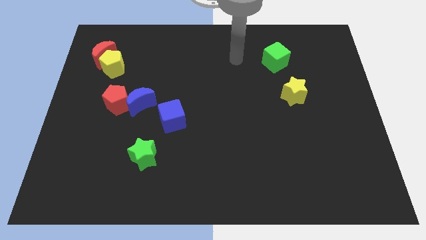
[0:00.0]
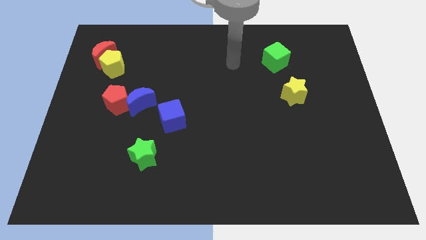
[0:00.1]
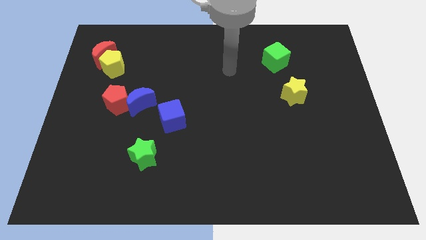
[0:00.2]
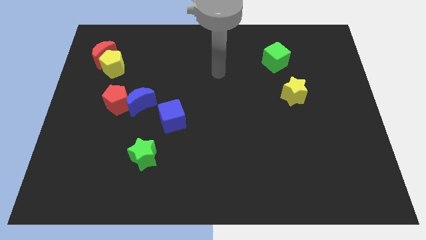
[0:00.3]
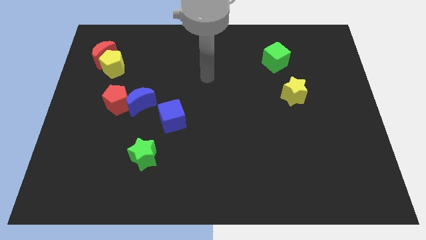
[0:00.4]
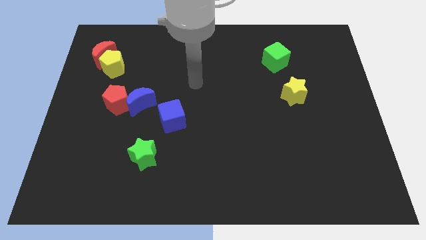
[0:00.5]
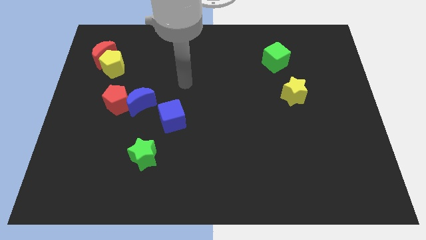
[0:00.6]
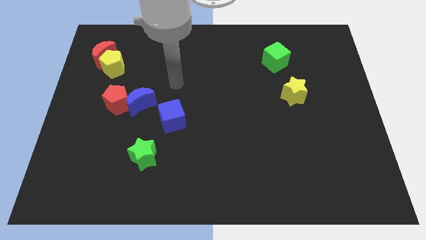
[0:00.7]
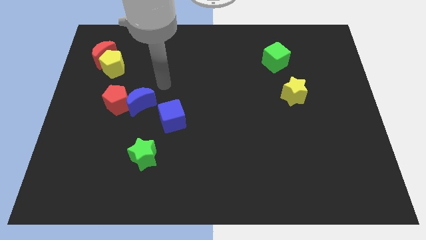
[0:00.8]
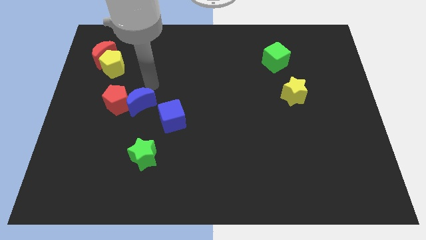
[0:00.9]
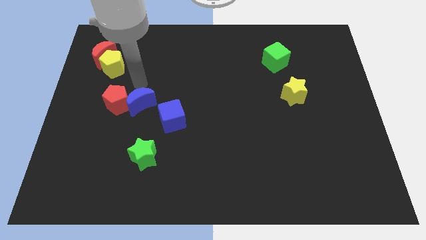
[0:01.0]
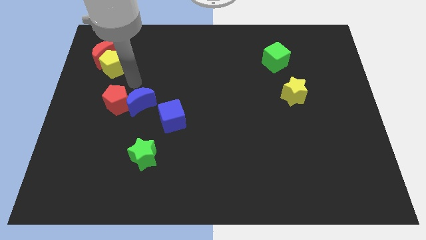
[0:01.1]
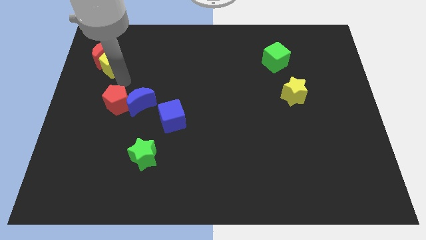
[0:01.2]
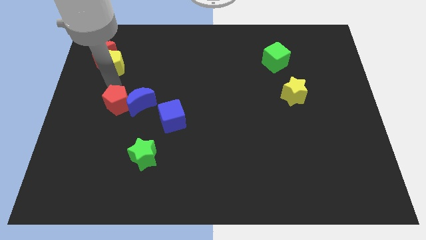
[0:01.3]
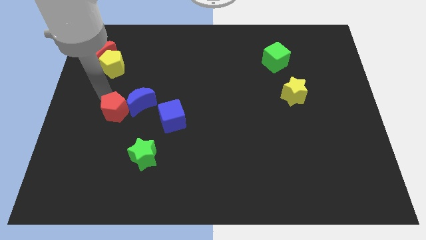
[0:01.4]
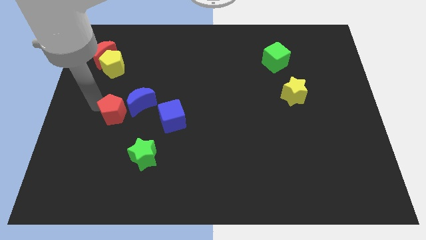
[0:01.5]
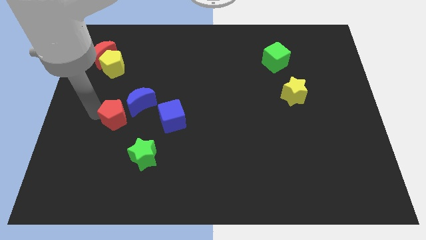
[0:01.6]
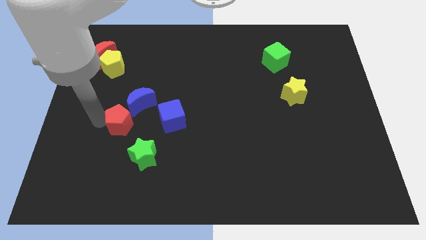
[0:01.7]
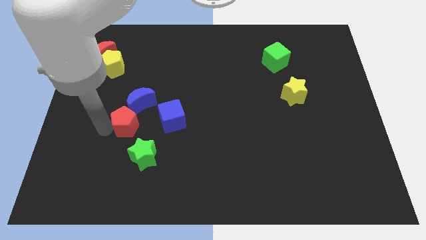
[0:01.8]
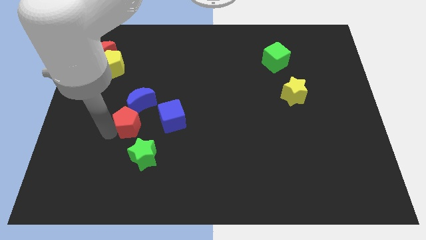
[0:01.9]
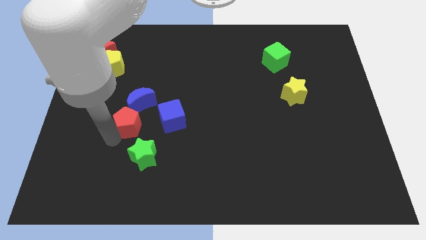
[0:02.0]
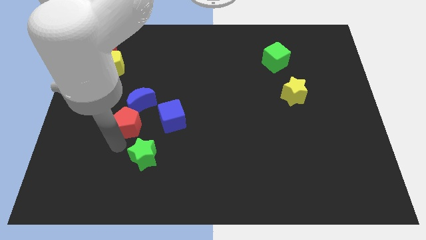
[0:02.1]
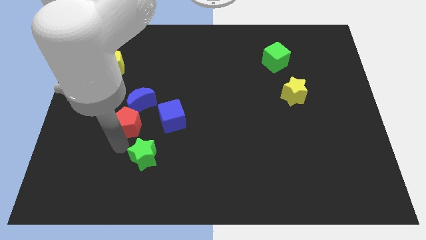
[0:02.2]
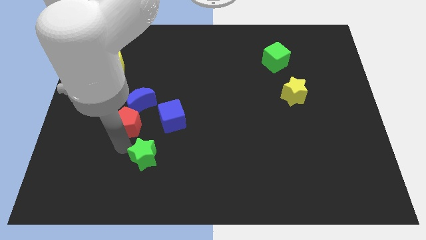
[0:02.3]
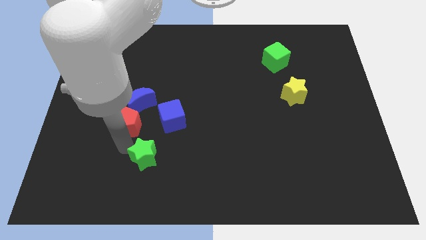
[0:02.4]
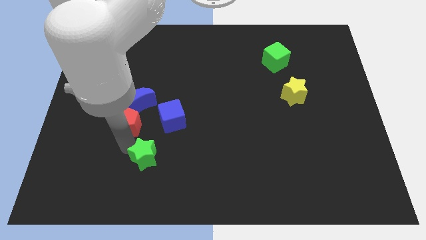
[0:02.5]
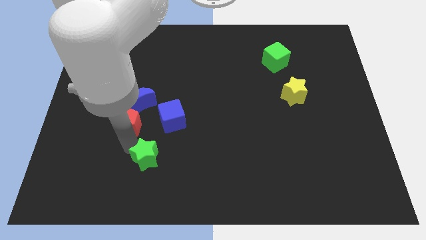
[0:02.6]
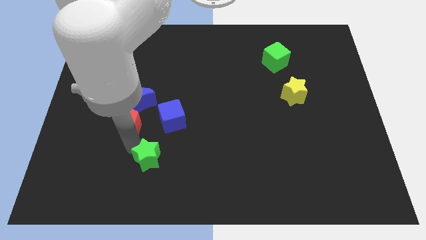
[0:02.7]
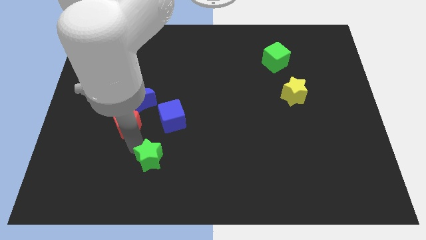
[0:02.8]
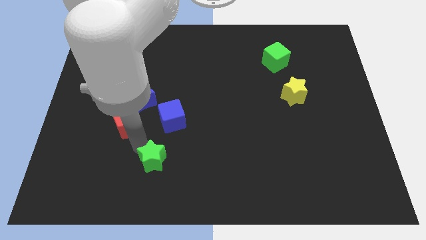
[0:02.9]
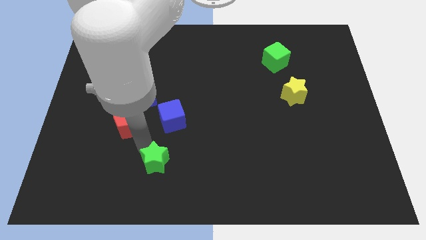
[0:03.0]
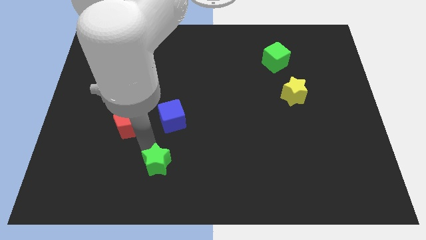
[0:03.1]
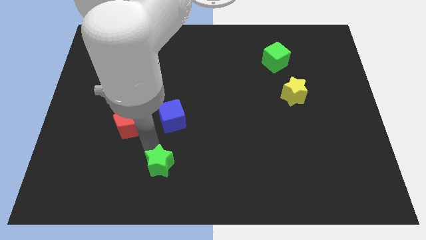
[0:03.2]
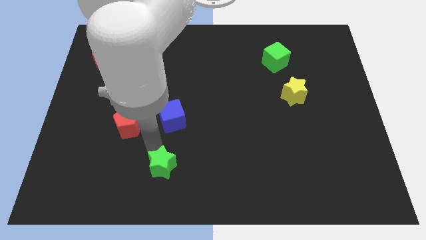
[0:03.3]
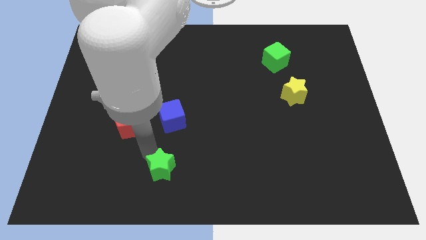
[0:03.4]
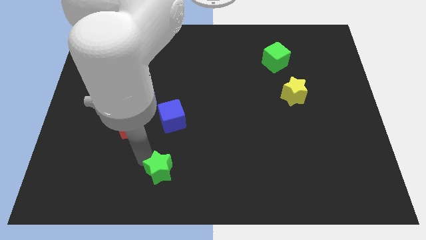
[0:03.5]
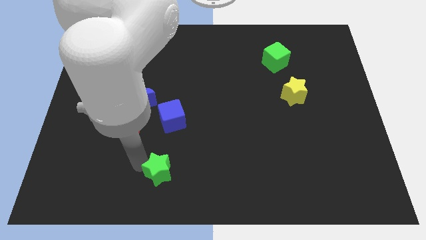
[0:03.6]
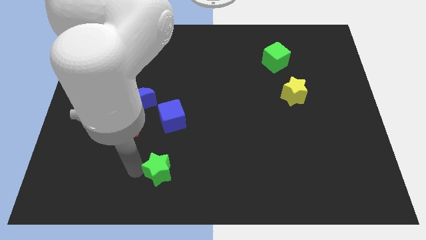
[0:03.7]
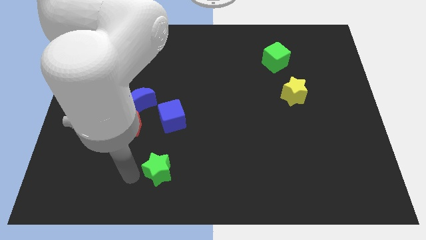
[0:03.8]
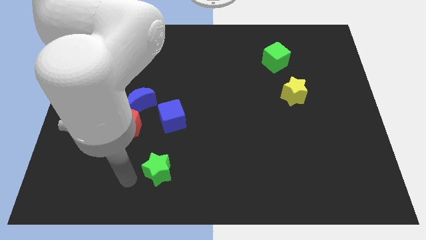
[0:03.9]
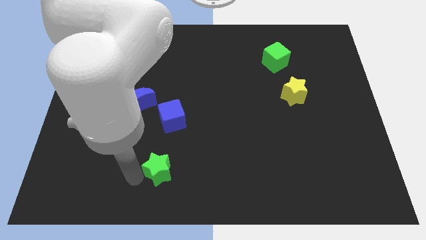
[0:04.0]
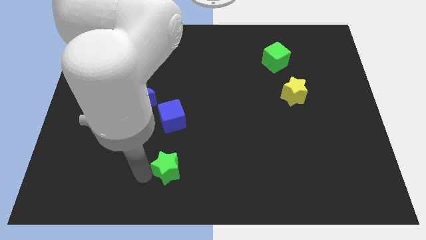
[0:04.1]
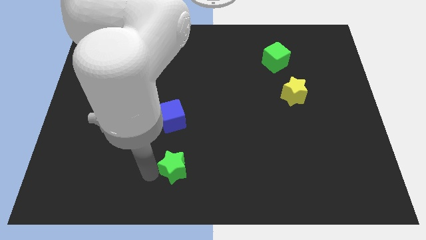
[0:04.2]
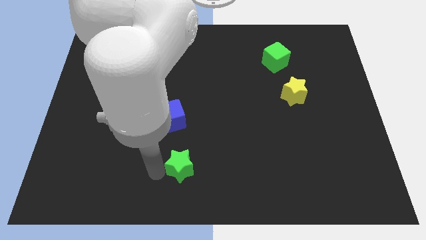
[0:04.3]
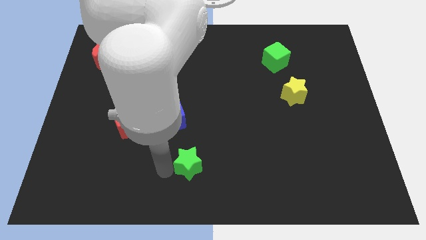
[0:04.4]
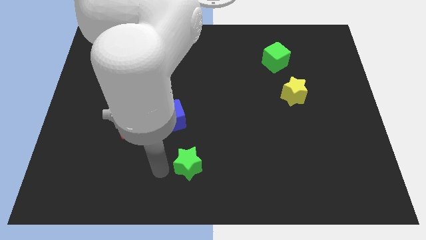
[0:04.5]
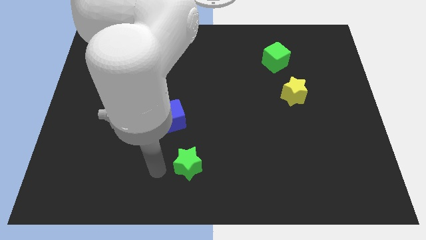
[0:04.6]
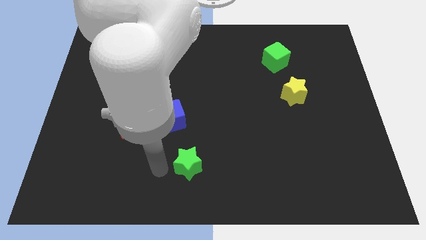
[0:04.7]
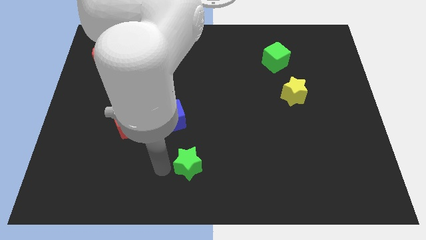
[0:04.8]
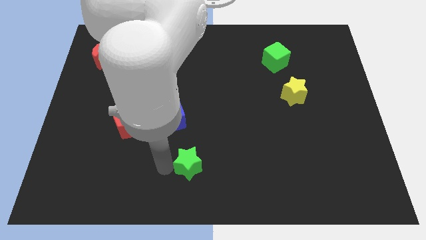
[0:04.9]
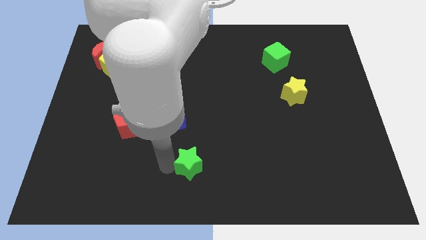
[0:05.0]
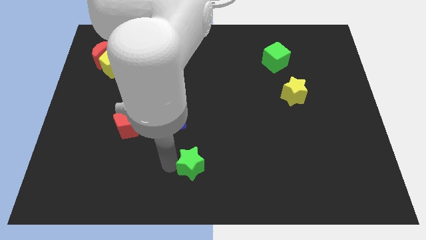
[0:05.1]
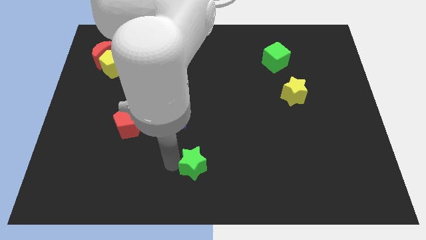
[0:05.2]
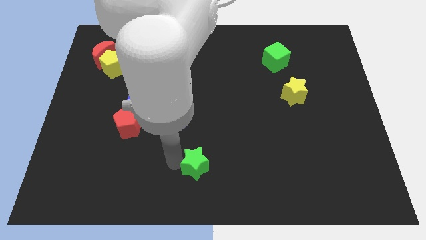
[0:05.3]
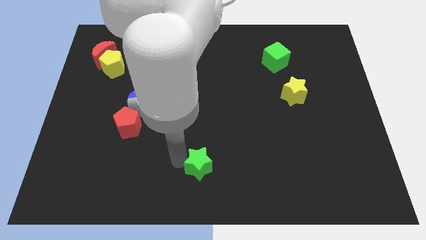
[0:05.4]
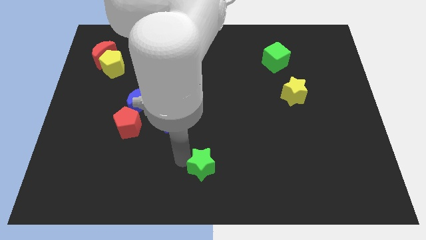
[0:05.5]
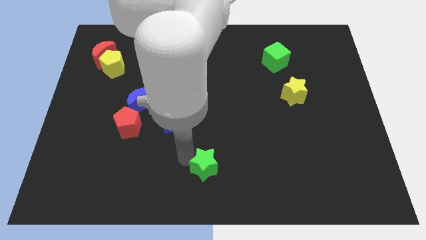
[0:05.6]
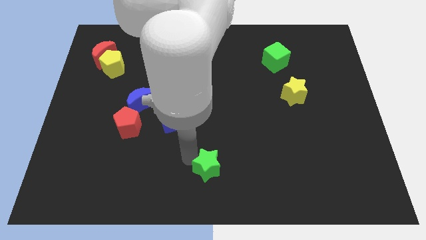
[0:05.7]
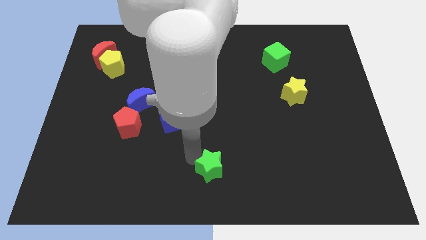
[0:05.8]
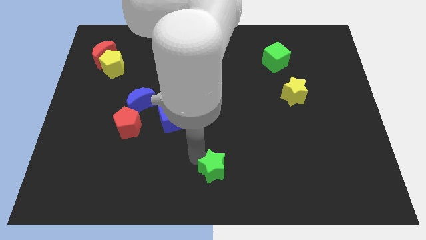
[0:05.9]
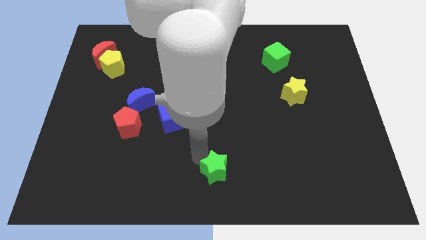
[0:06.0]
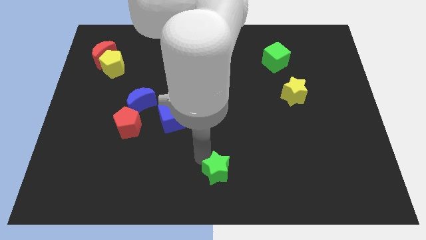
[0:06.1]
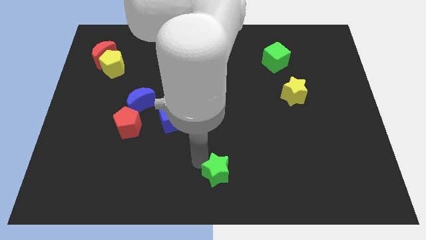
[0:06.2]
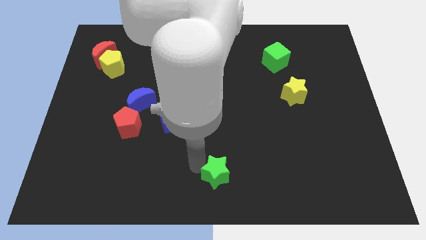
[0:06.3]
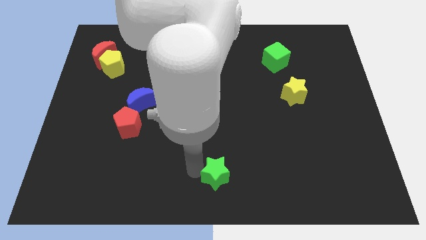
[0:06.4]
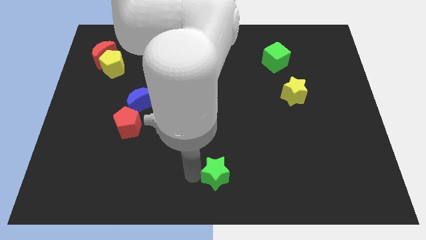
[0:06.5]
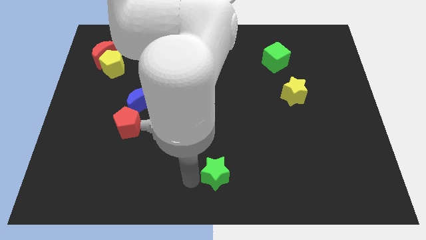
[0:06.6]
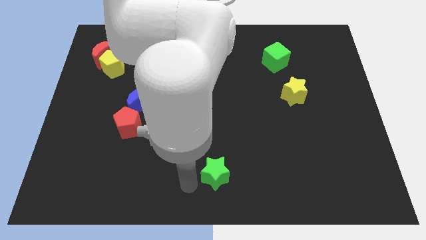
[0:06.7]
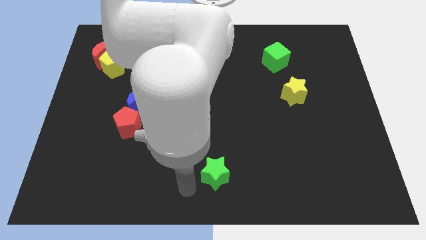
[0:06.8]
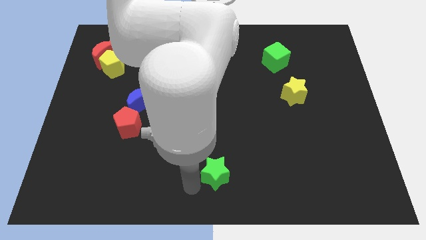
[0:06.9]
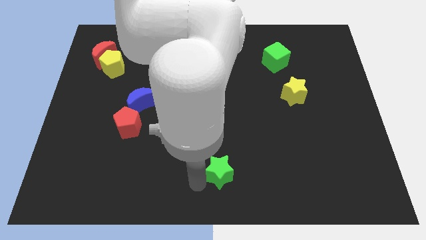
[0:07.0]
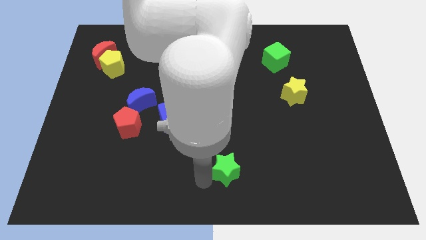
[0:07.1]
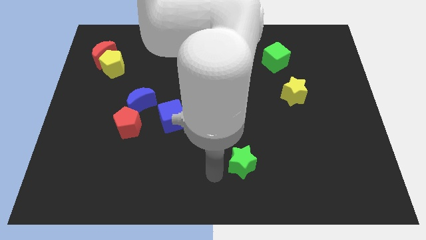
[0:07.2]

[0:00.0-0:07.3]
push the green star to the right

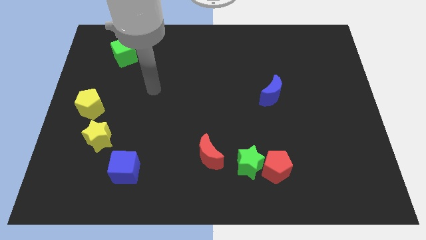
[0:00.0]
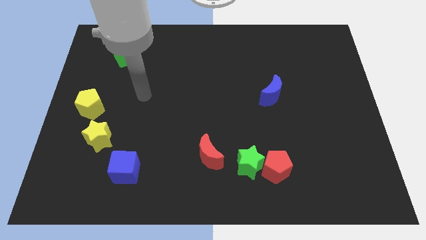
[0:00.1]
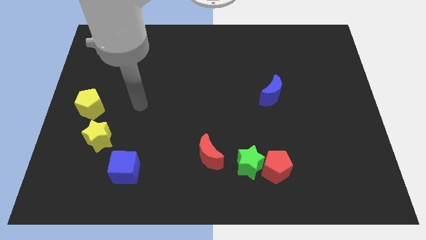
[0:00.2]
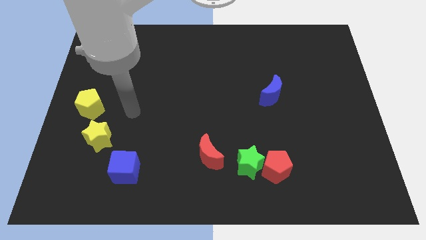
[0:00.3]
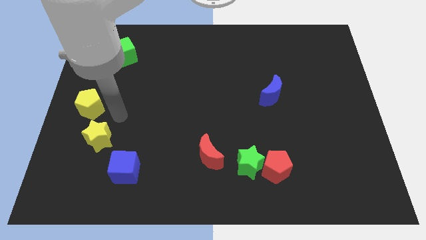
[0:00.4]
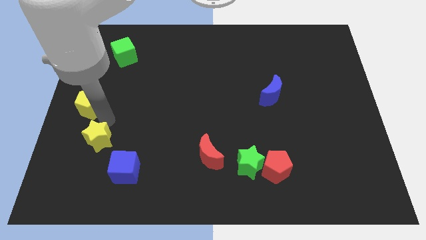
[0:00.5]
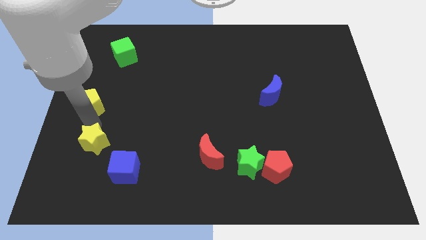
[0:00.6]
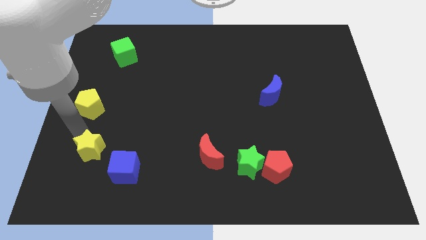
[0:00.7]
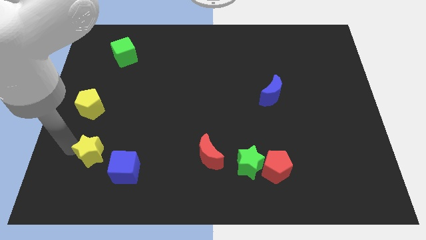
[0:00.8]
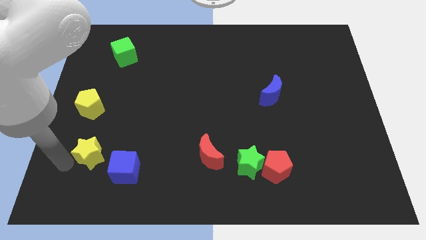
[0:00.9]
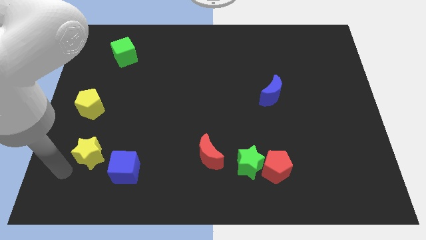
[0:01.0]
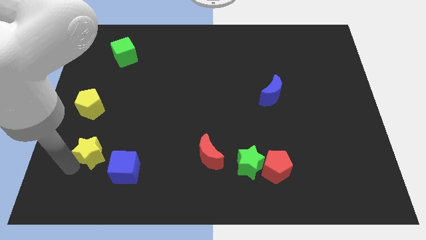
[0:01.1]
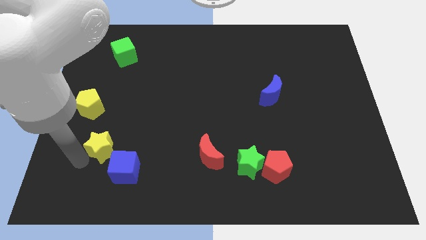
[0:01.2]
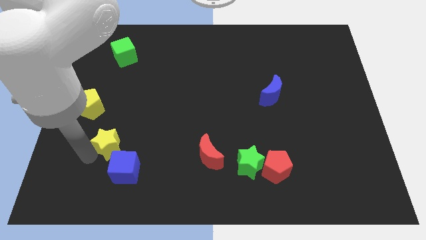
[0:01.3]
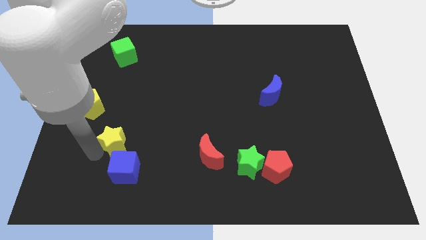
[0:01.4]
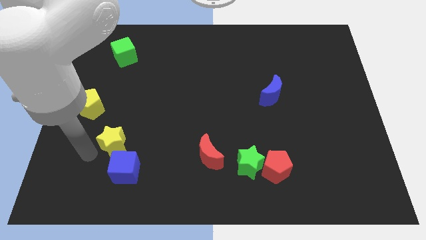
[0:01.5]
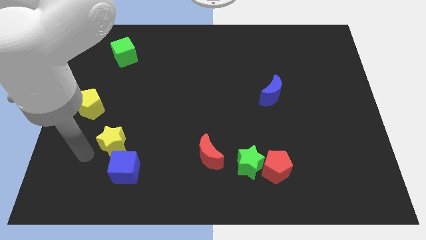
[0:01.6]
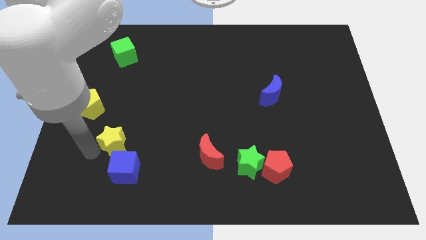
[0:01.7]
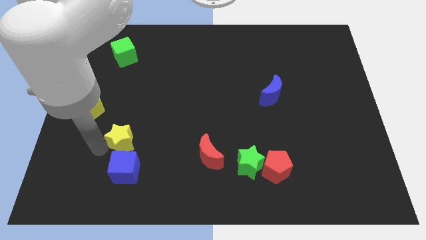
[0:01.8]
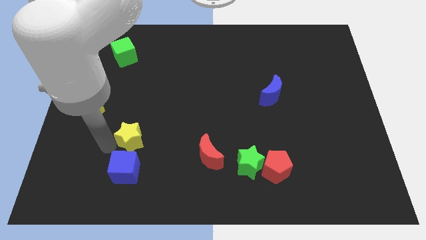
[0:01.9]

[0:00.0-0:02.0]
push the yellow star to the right a little
